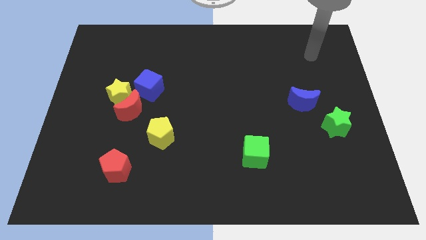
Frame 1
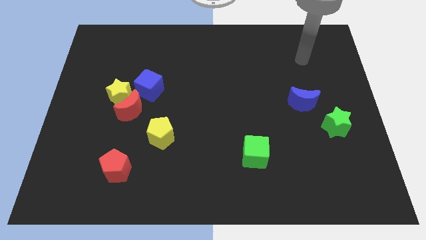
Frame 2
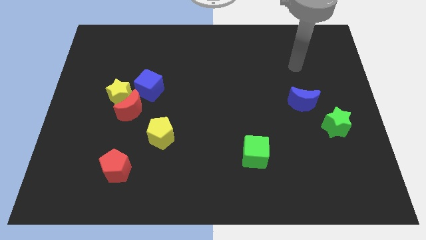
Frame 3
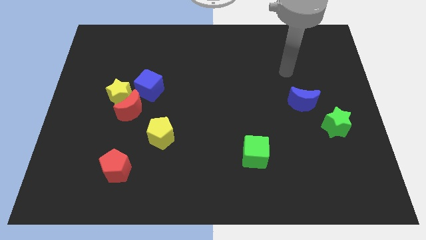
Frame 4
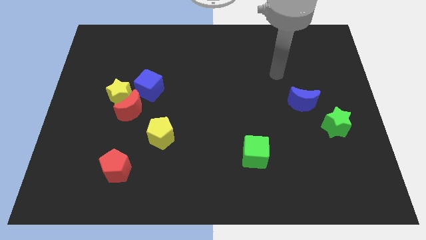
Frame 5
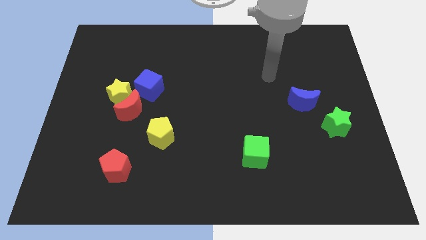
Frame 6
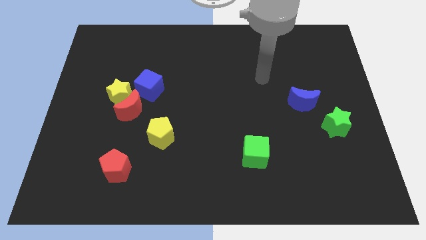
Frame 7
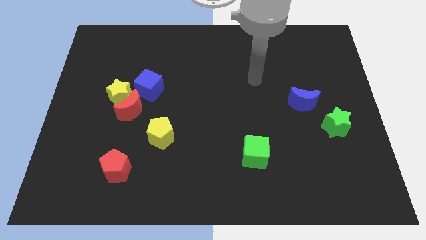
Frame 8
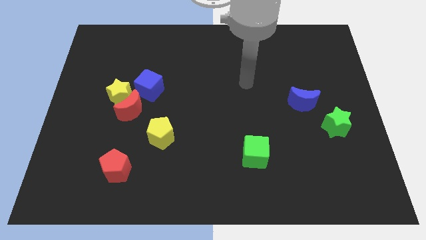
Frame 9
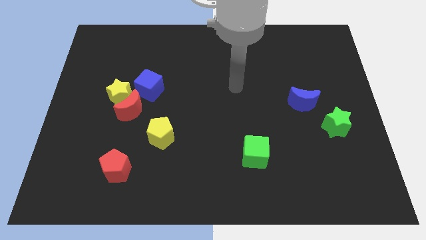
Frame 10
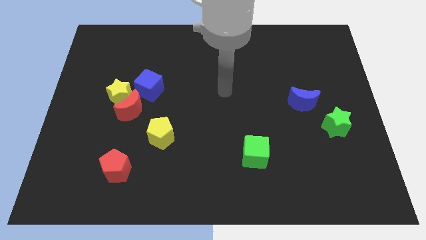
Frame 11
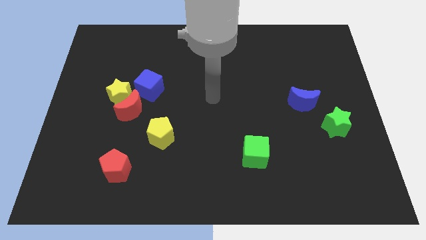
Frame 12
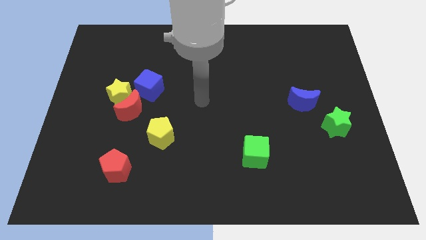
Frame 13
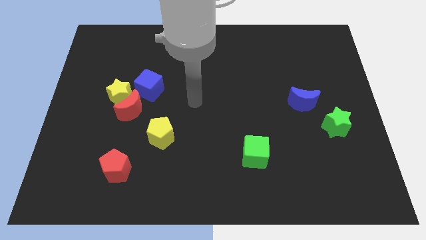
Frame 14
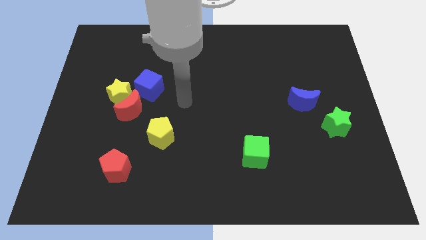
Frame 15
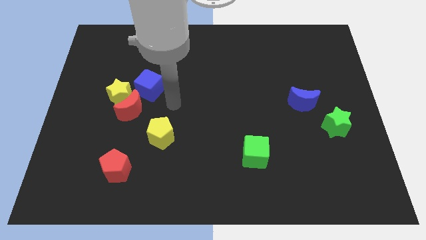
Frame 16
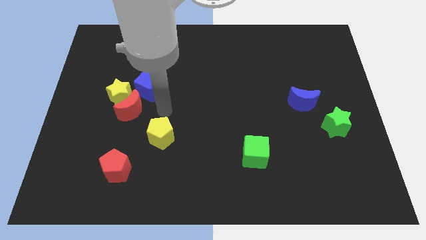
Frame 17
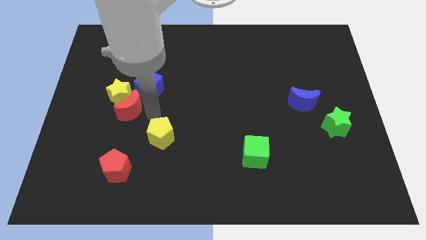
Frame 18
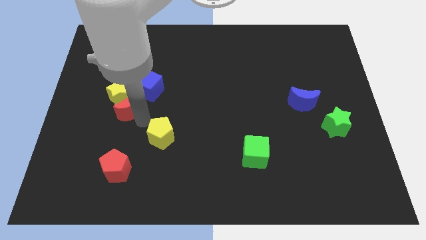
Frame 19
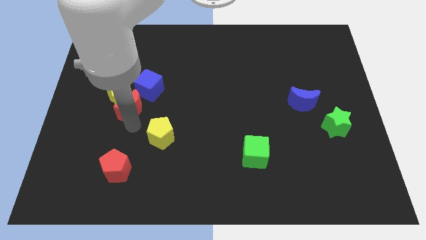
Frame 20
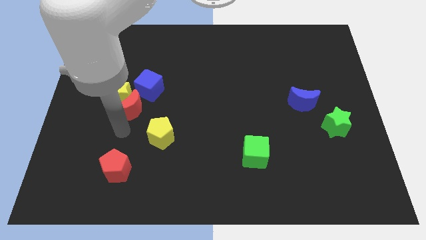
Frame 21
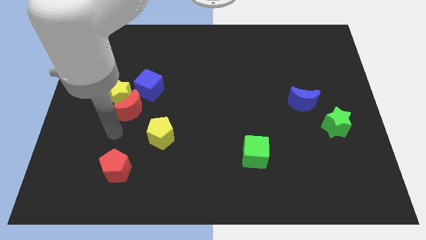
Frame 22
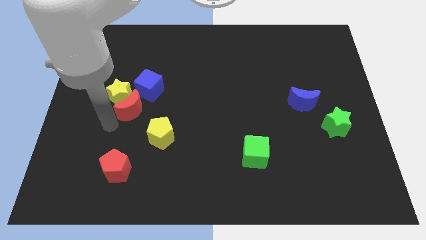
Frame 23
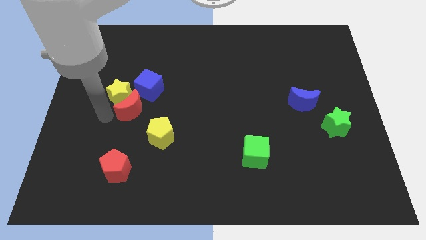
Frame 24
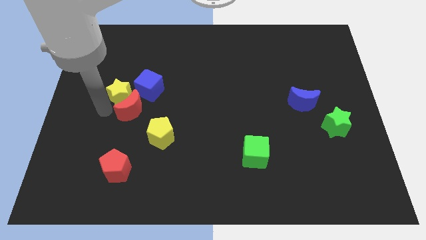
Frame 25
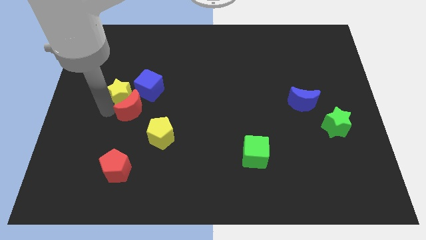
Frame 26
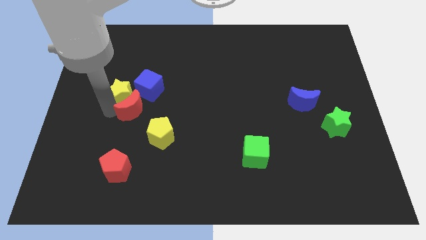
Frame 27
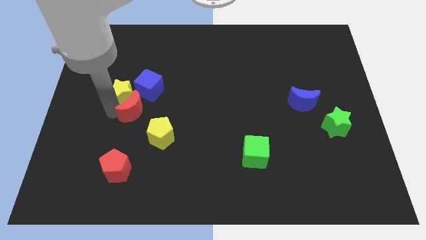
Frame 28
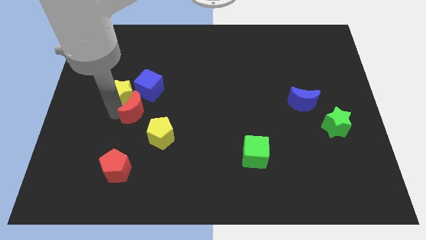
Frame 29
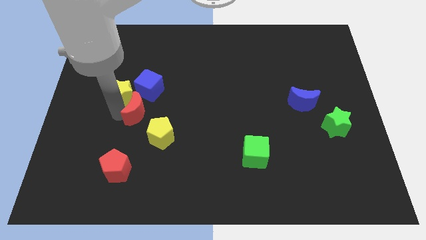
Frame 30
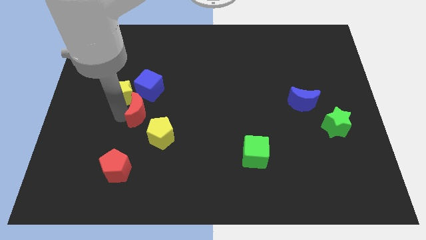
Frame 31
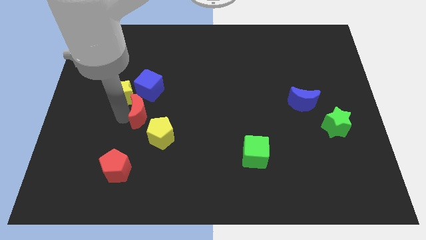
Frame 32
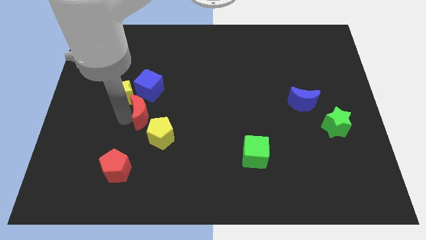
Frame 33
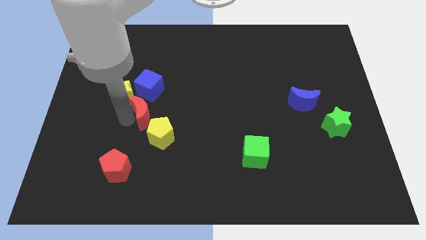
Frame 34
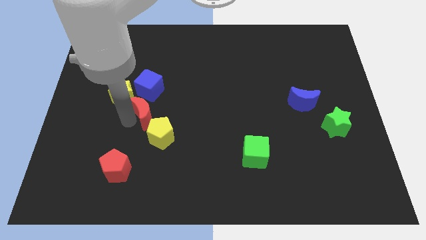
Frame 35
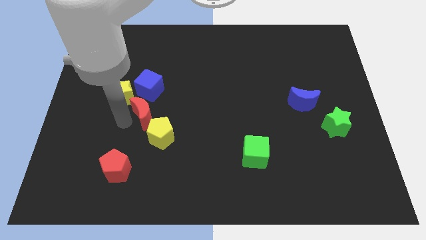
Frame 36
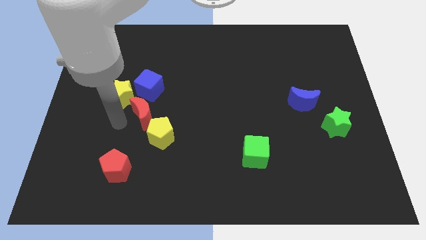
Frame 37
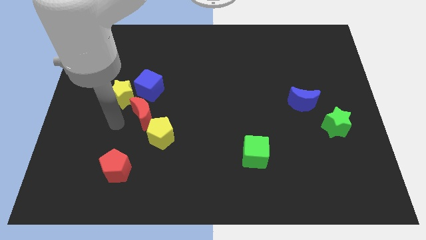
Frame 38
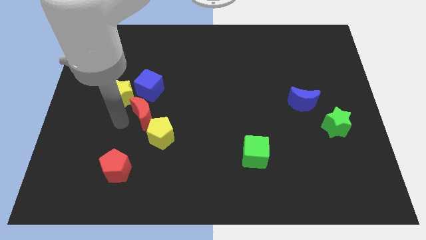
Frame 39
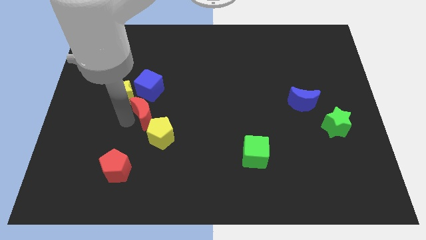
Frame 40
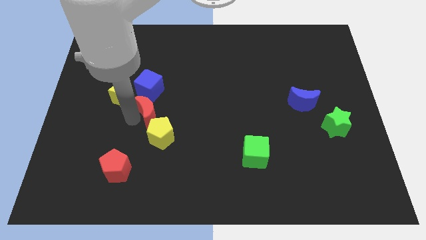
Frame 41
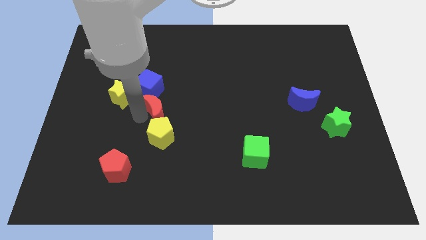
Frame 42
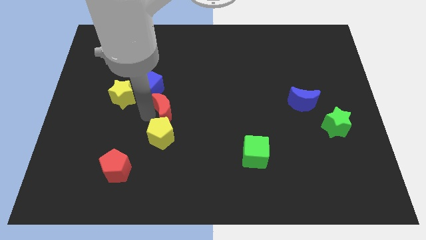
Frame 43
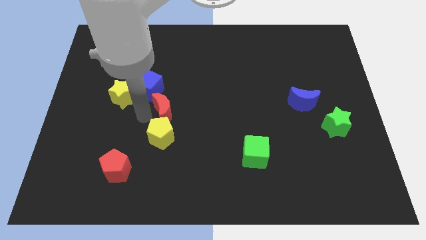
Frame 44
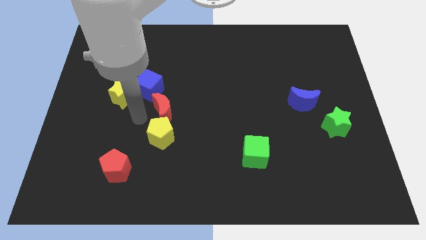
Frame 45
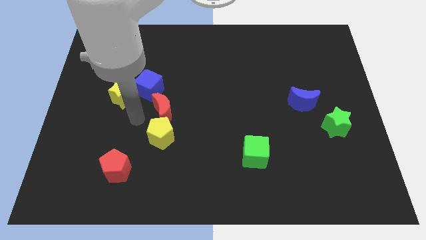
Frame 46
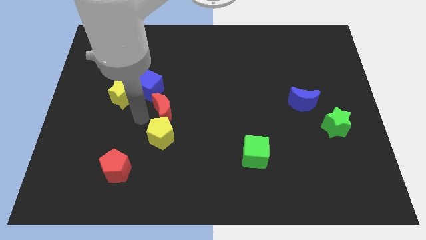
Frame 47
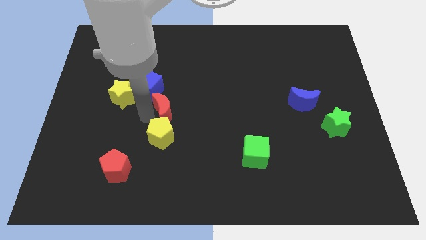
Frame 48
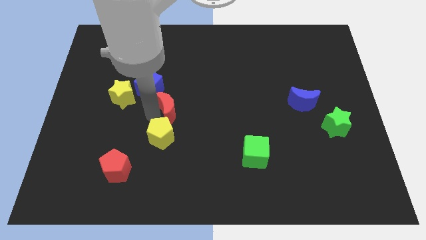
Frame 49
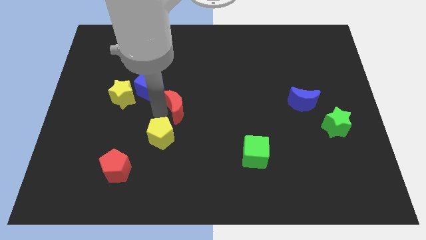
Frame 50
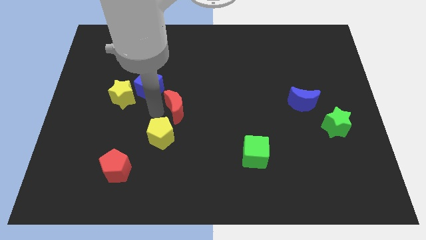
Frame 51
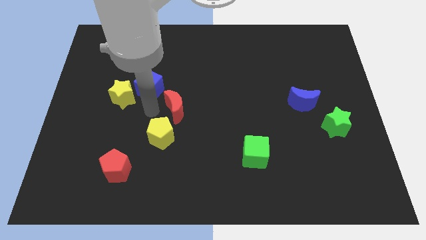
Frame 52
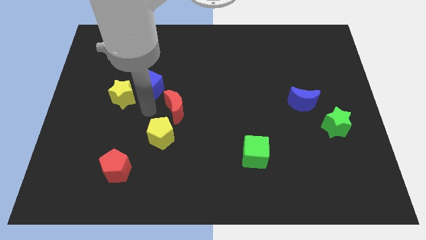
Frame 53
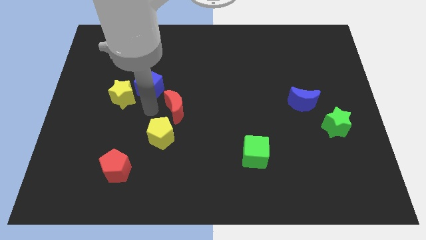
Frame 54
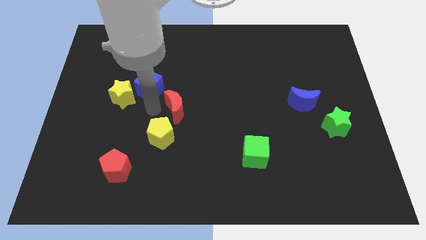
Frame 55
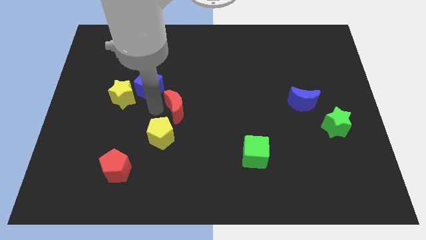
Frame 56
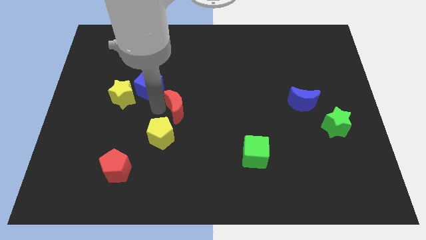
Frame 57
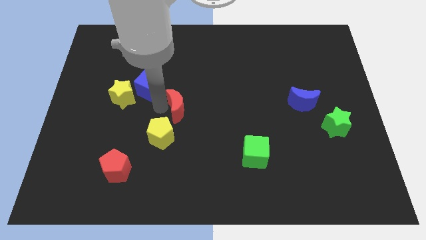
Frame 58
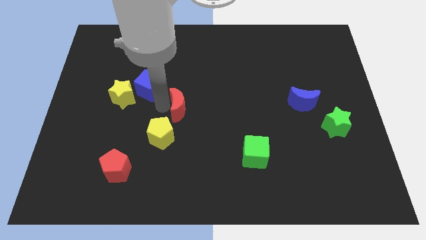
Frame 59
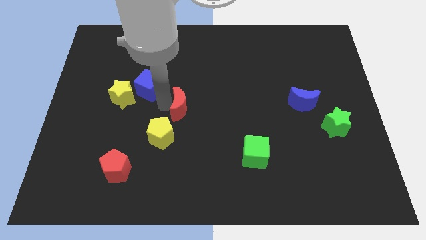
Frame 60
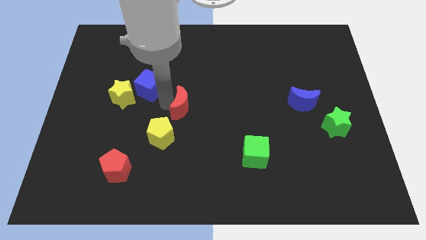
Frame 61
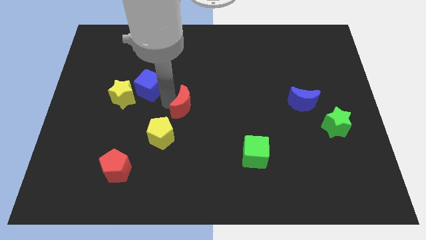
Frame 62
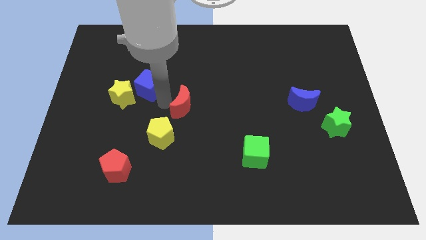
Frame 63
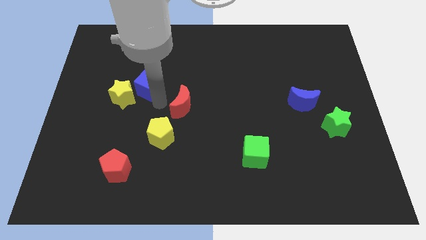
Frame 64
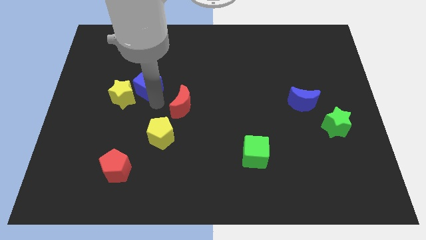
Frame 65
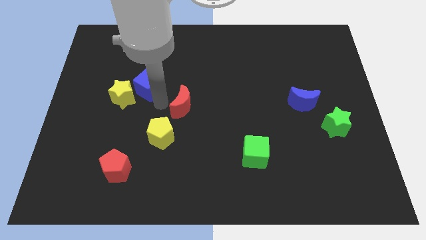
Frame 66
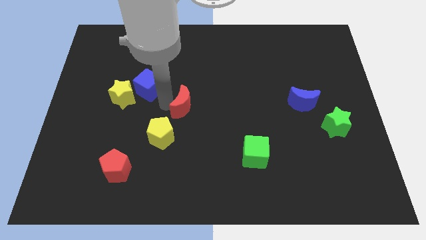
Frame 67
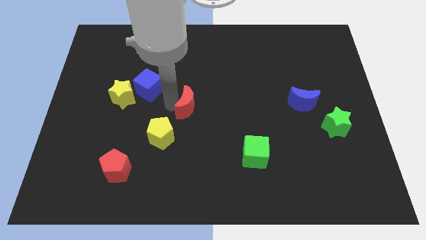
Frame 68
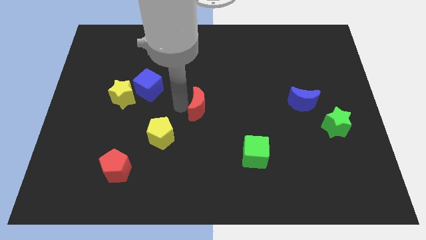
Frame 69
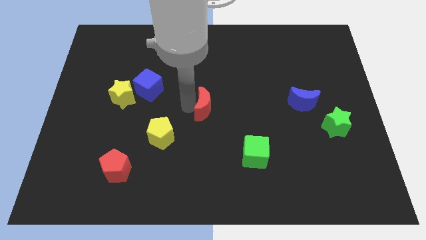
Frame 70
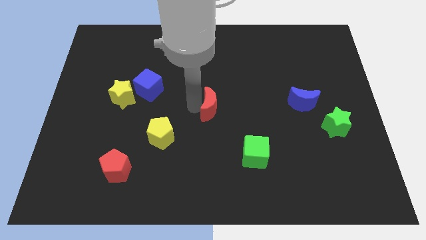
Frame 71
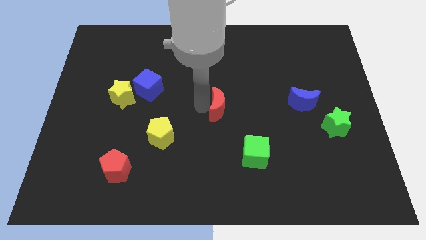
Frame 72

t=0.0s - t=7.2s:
move the red moon to the right

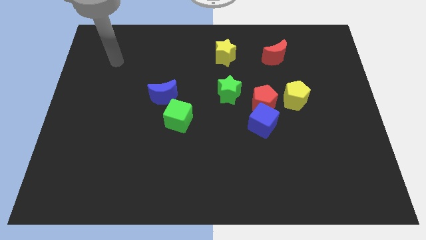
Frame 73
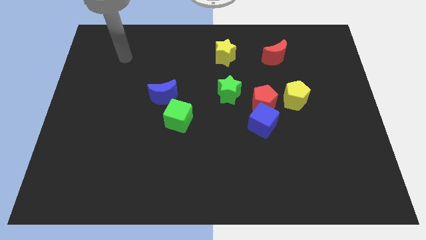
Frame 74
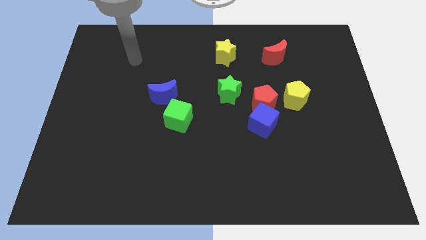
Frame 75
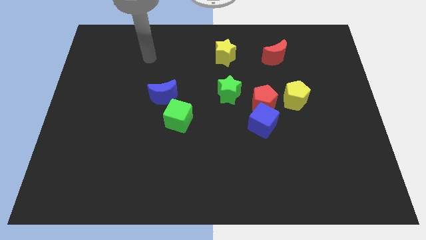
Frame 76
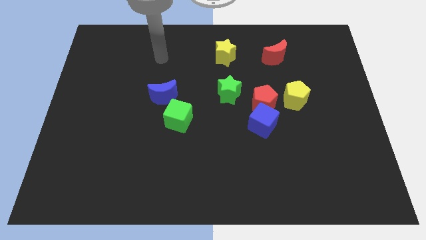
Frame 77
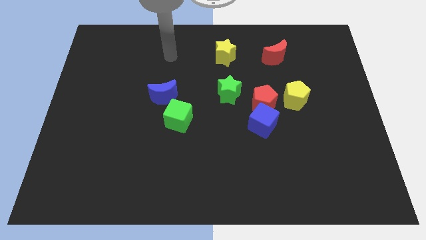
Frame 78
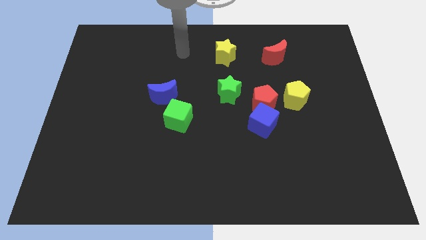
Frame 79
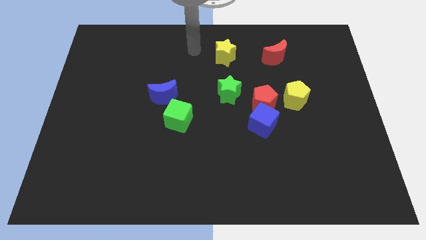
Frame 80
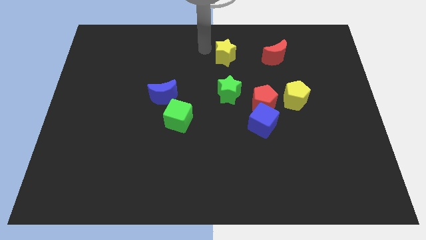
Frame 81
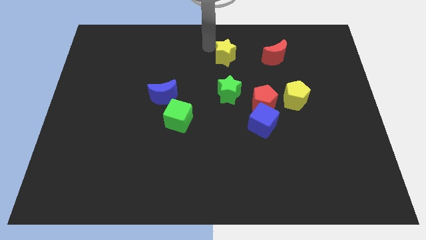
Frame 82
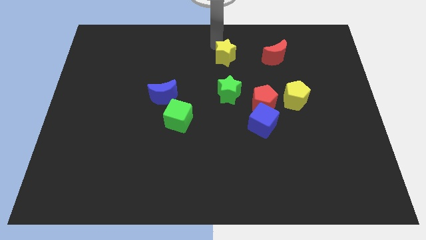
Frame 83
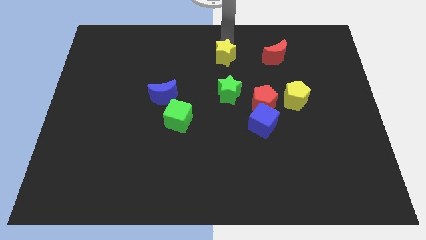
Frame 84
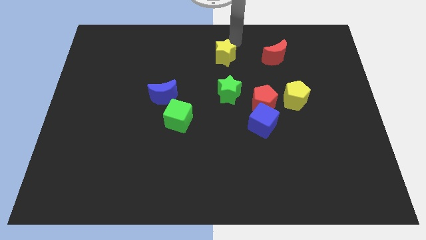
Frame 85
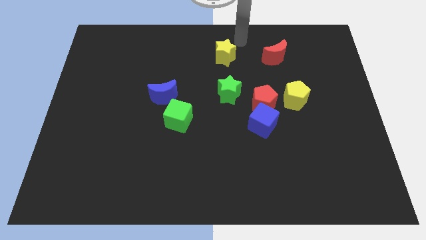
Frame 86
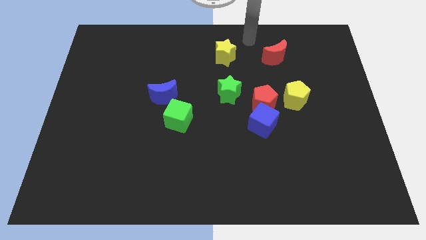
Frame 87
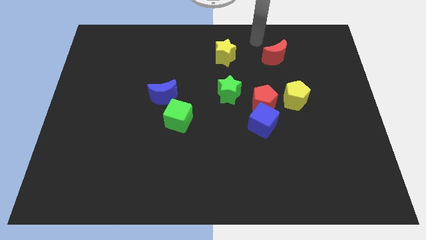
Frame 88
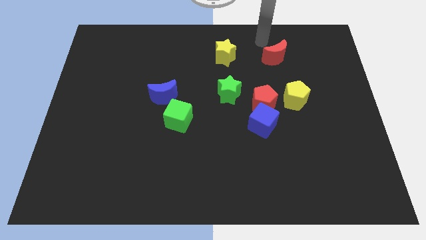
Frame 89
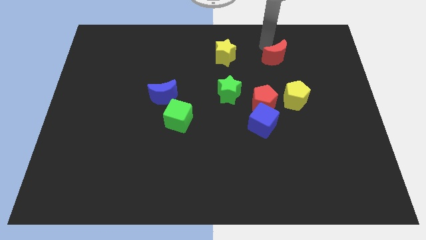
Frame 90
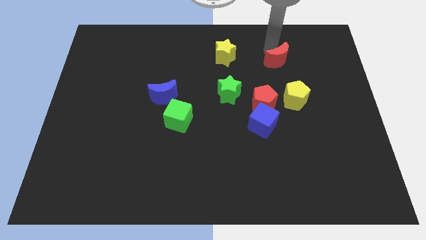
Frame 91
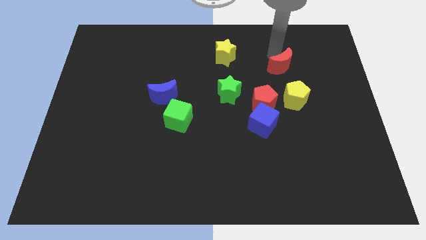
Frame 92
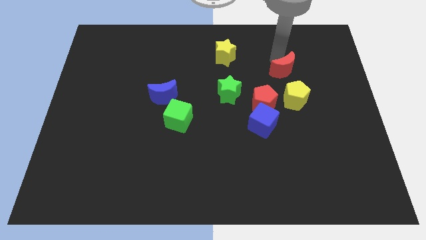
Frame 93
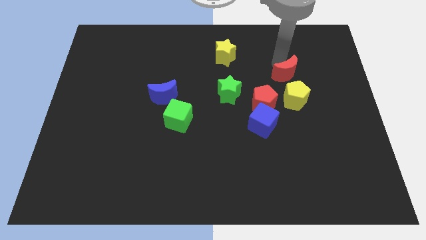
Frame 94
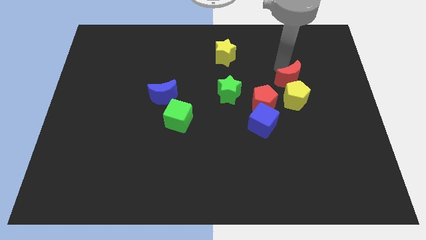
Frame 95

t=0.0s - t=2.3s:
move the red moon downwards a little
